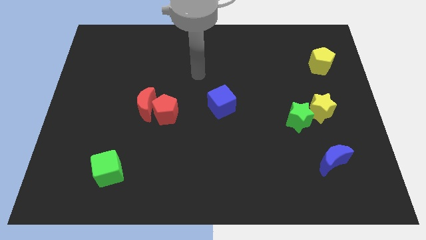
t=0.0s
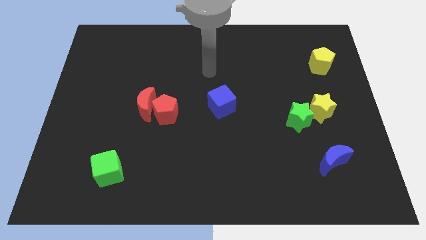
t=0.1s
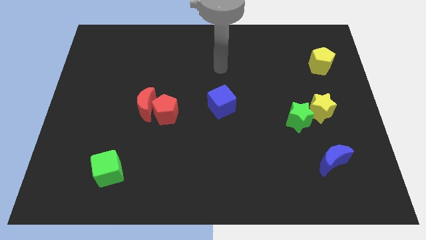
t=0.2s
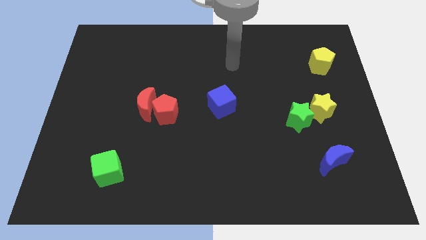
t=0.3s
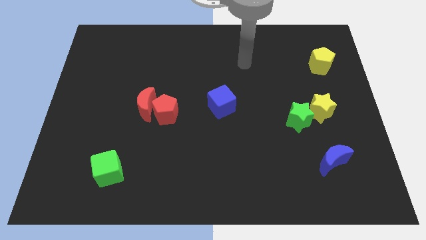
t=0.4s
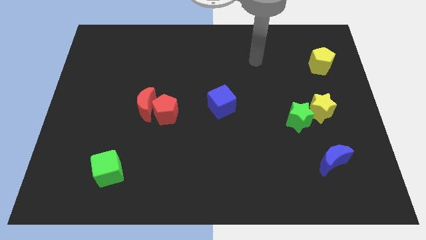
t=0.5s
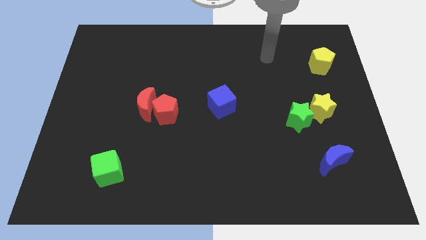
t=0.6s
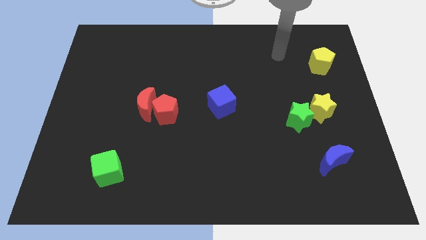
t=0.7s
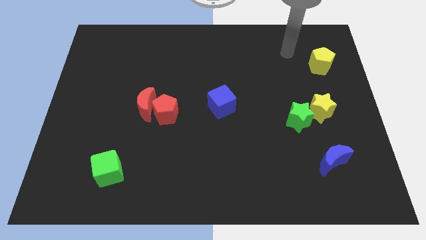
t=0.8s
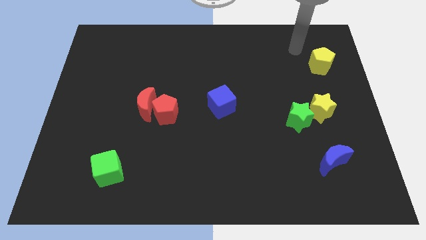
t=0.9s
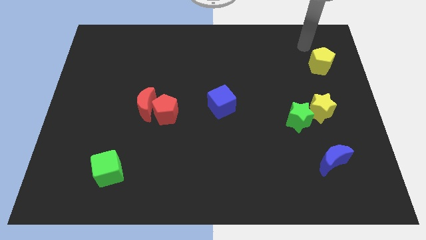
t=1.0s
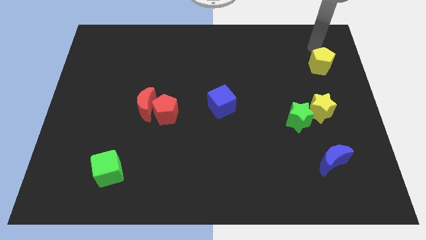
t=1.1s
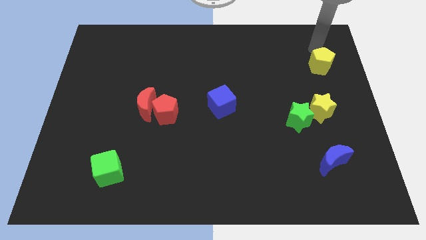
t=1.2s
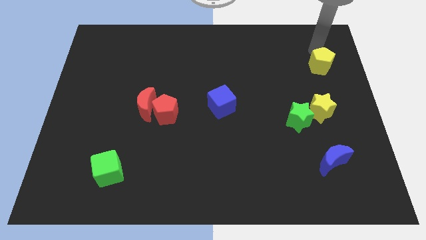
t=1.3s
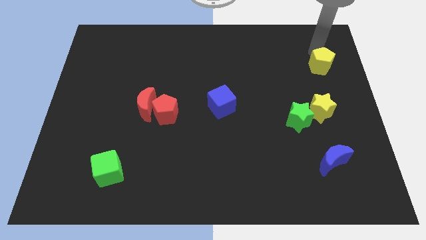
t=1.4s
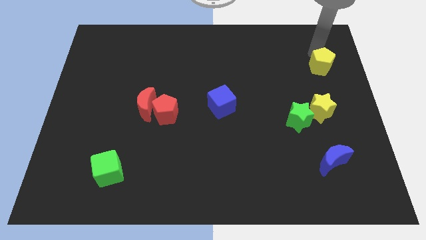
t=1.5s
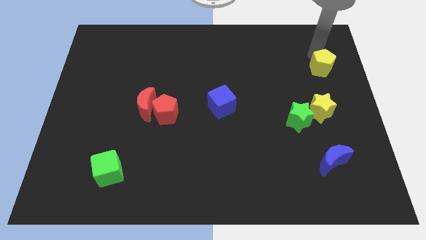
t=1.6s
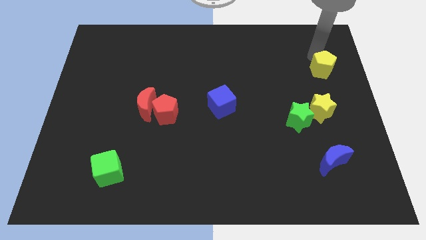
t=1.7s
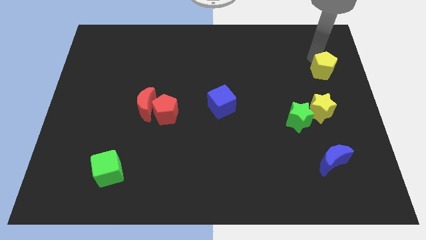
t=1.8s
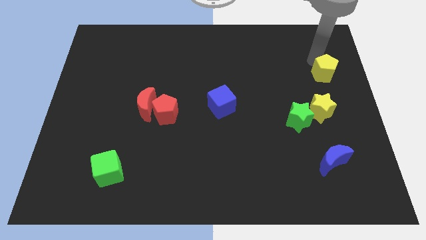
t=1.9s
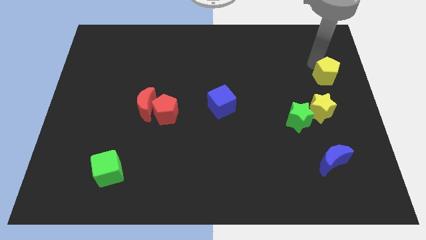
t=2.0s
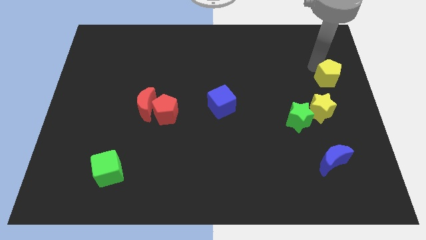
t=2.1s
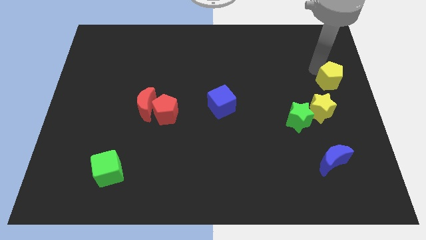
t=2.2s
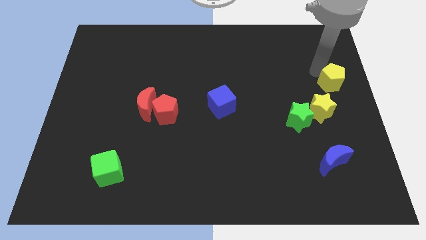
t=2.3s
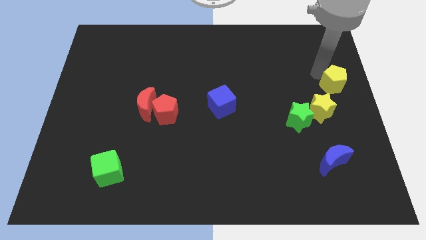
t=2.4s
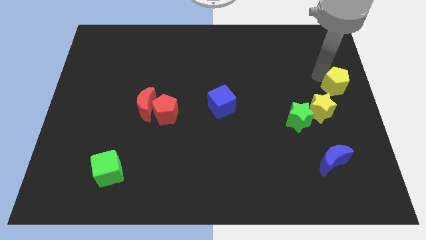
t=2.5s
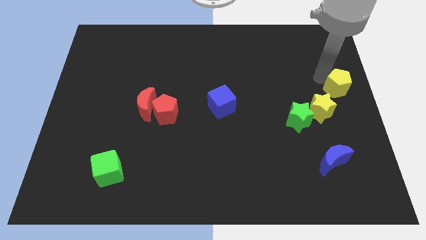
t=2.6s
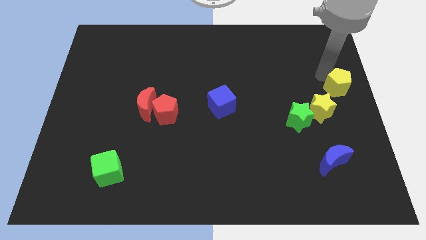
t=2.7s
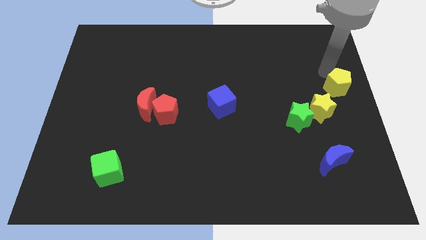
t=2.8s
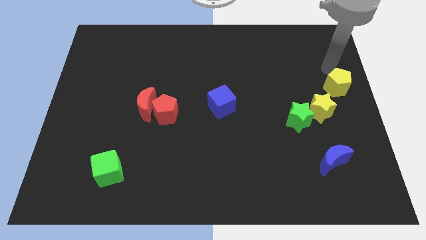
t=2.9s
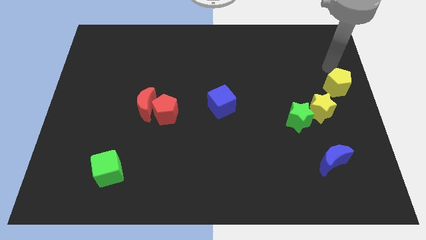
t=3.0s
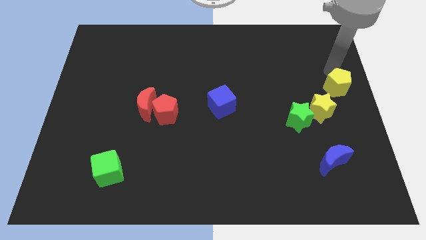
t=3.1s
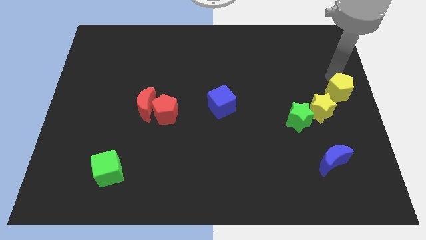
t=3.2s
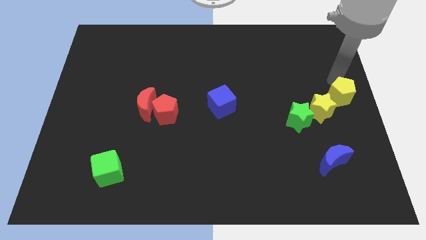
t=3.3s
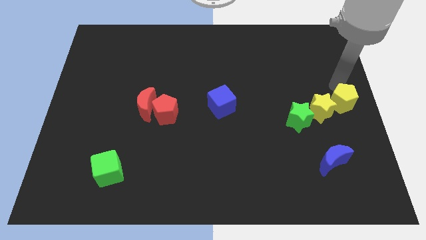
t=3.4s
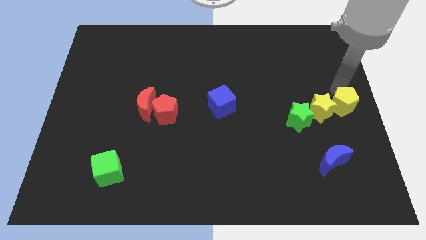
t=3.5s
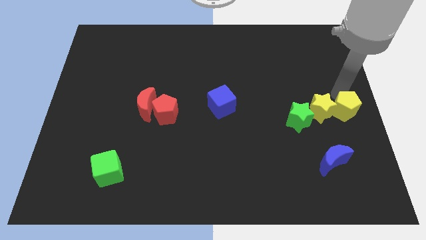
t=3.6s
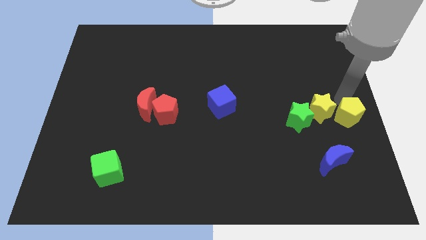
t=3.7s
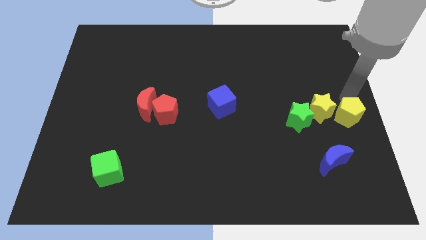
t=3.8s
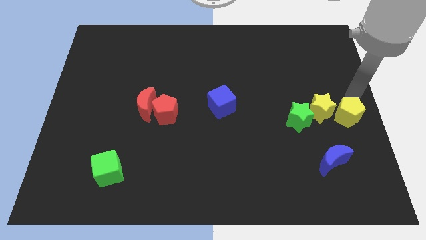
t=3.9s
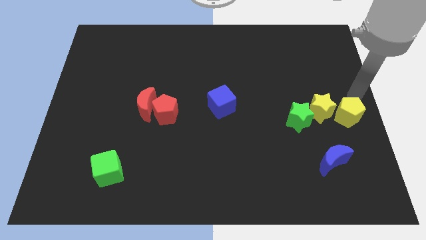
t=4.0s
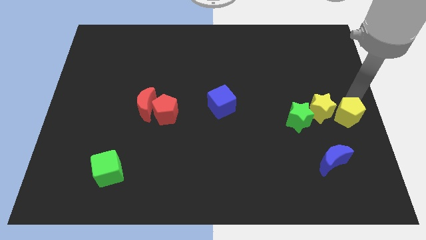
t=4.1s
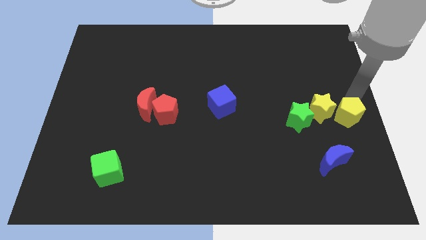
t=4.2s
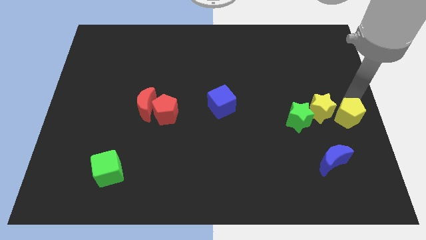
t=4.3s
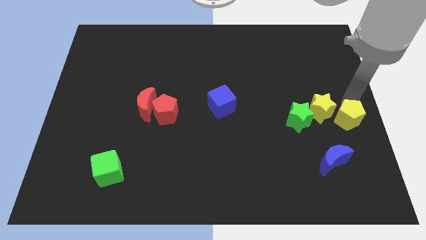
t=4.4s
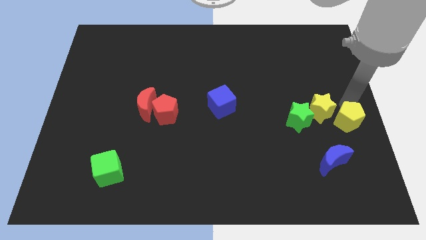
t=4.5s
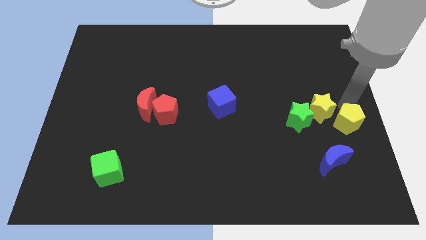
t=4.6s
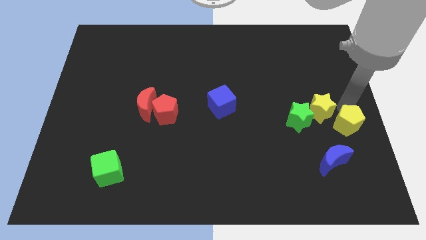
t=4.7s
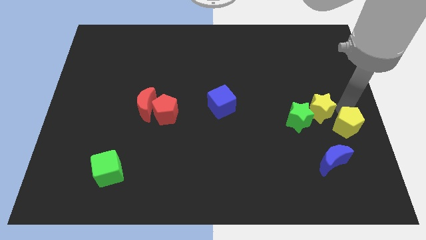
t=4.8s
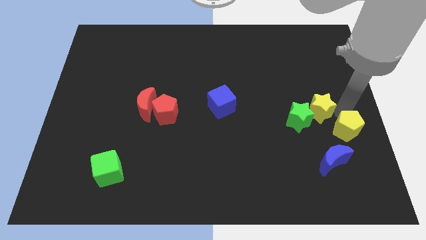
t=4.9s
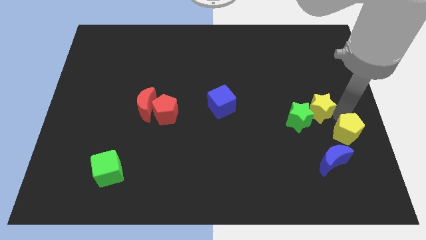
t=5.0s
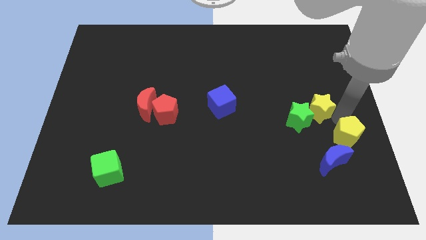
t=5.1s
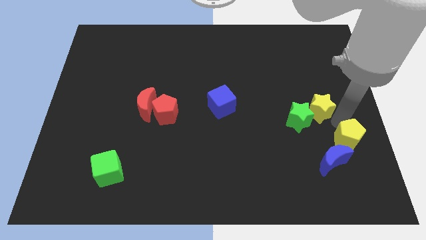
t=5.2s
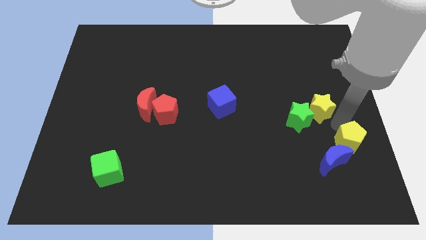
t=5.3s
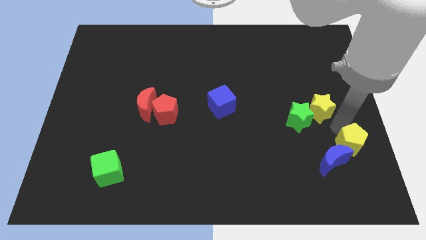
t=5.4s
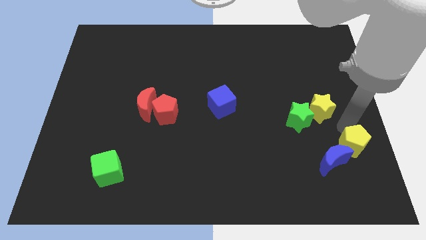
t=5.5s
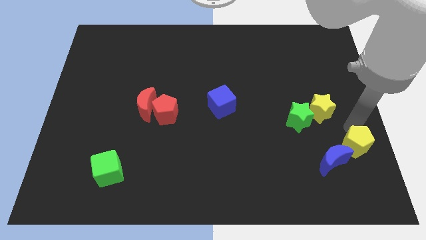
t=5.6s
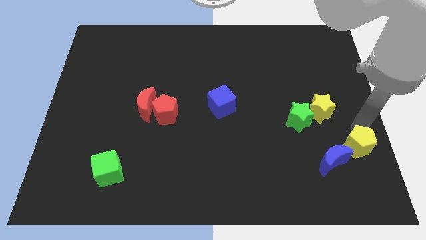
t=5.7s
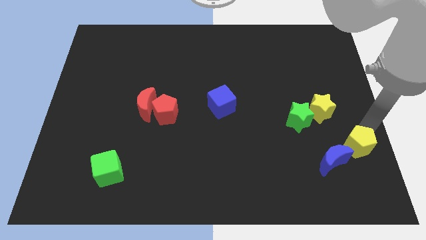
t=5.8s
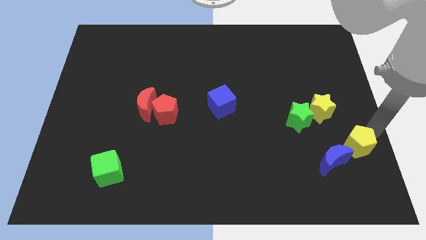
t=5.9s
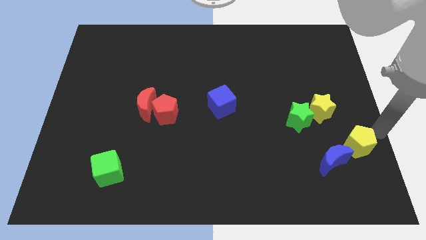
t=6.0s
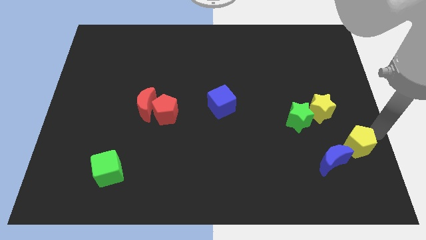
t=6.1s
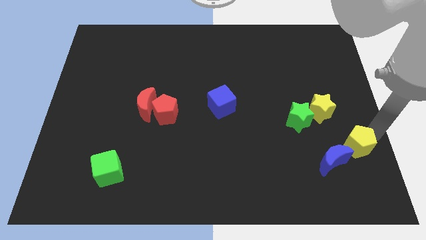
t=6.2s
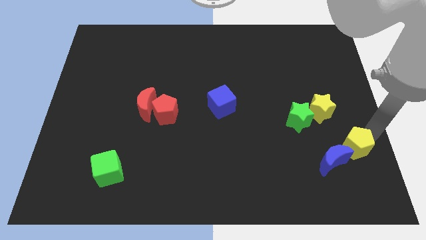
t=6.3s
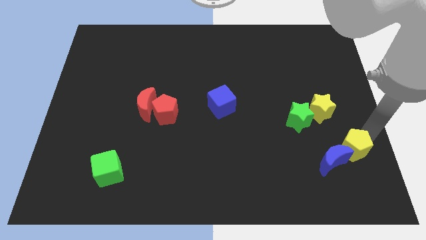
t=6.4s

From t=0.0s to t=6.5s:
put the yellow pentagon to the blue moon

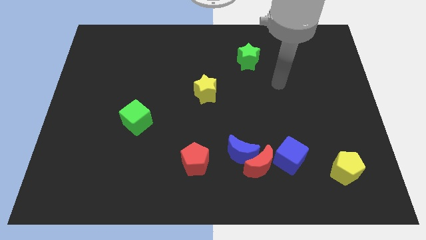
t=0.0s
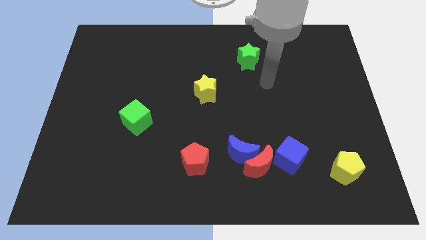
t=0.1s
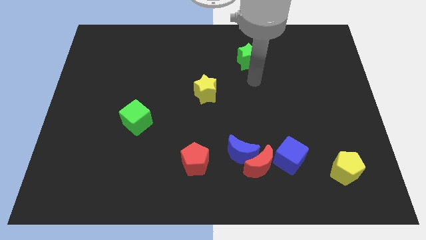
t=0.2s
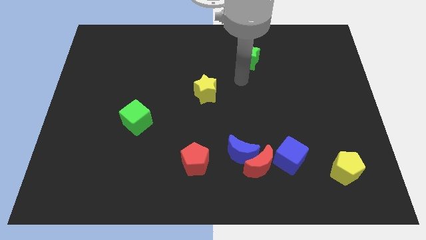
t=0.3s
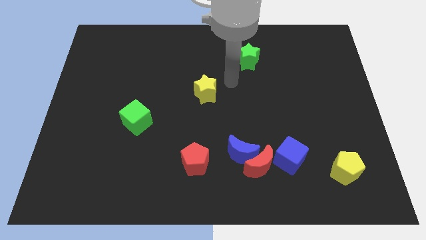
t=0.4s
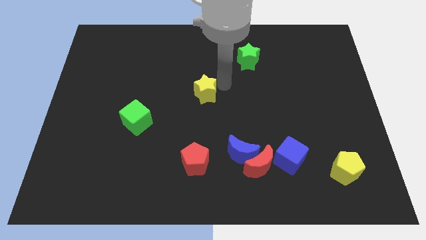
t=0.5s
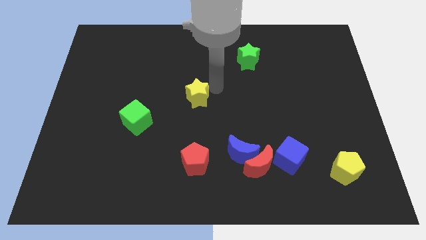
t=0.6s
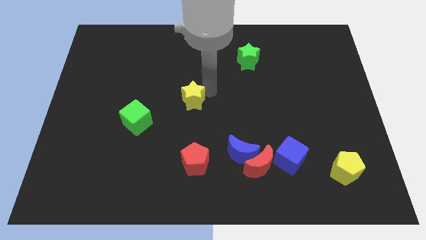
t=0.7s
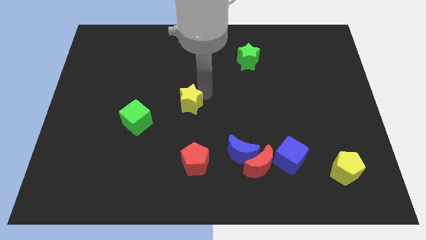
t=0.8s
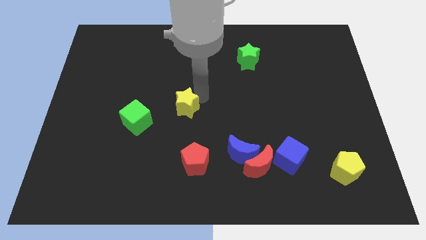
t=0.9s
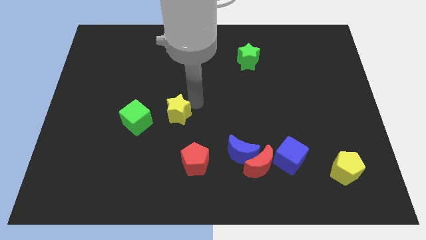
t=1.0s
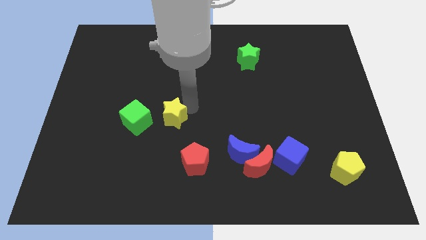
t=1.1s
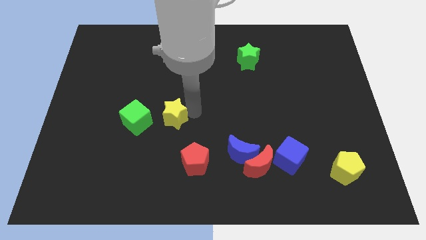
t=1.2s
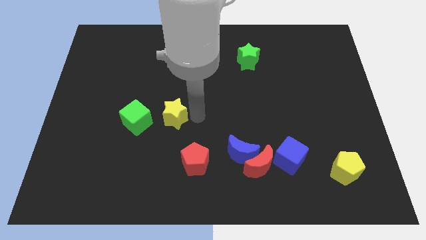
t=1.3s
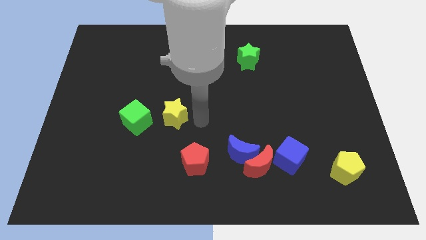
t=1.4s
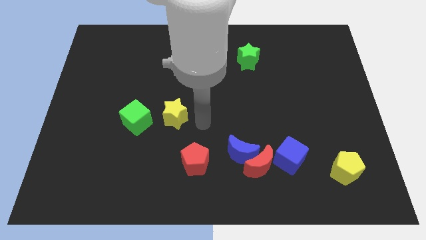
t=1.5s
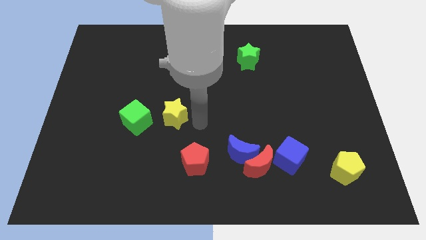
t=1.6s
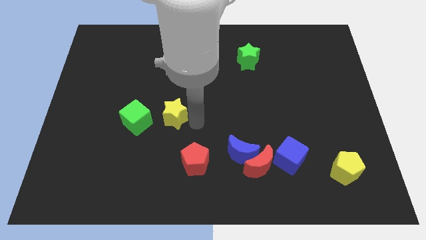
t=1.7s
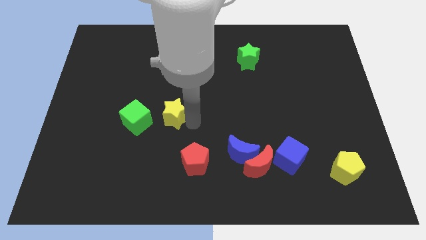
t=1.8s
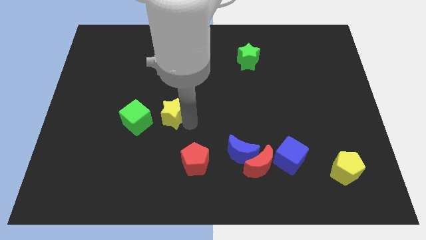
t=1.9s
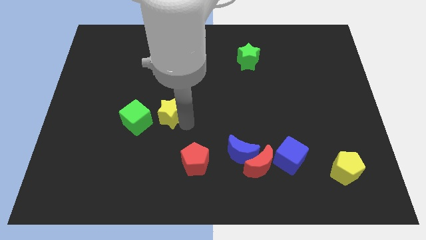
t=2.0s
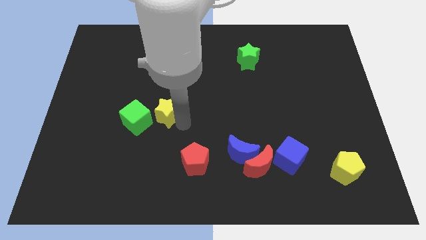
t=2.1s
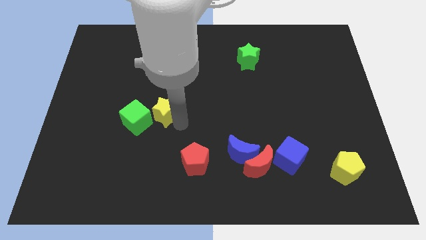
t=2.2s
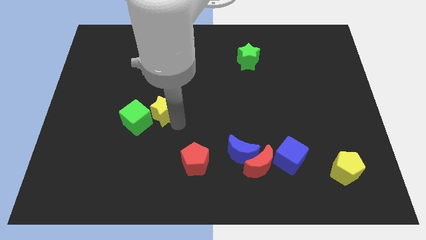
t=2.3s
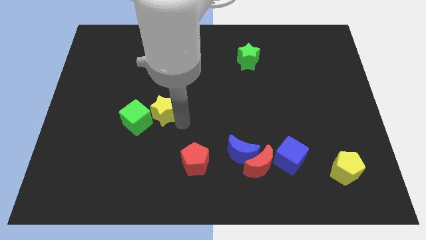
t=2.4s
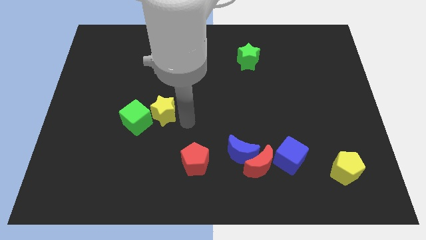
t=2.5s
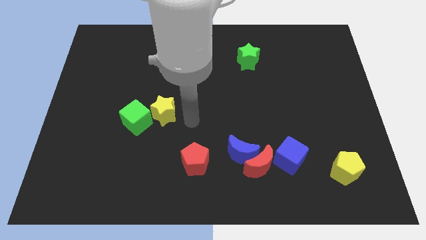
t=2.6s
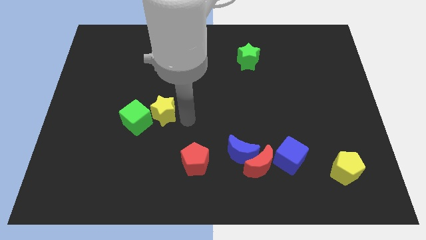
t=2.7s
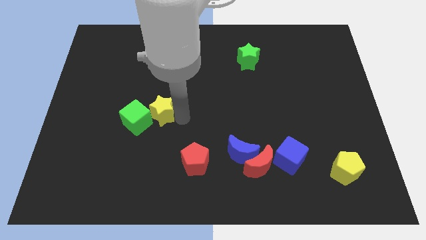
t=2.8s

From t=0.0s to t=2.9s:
move the yellow star next to the green cube
